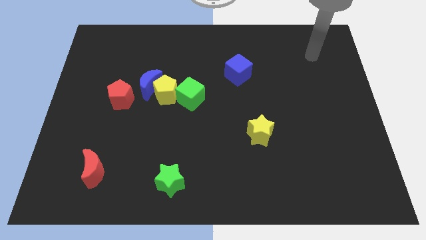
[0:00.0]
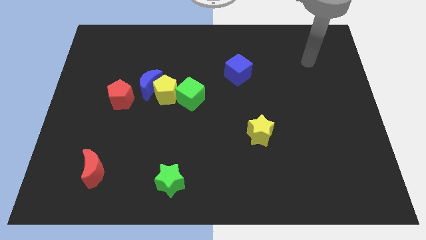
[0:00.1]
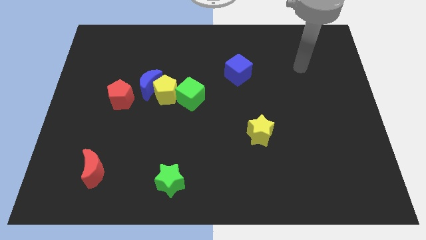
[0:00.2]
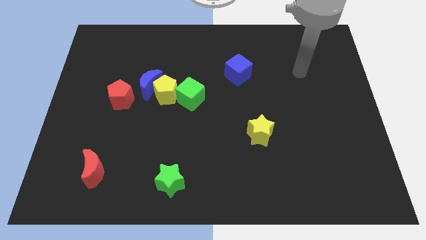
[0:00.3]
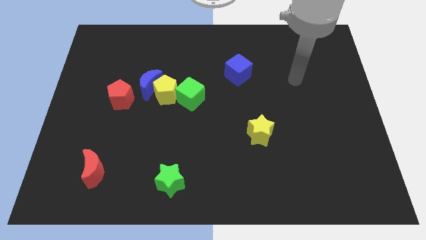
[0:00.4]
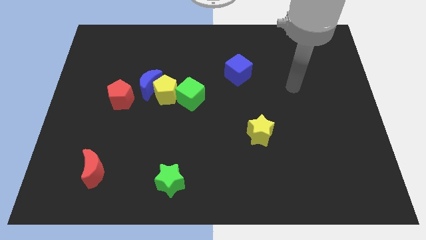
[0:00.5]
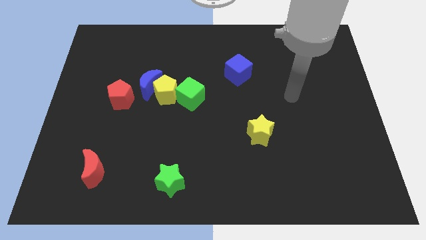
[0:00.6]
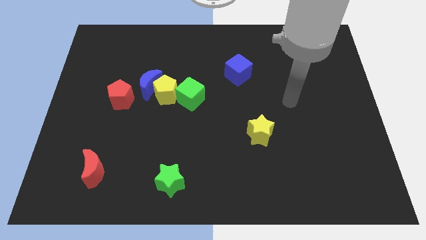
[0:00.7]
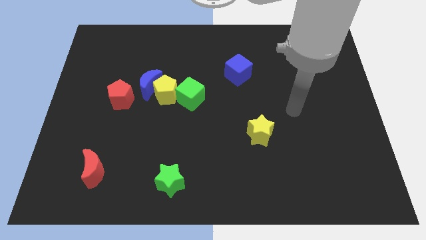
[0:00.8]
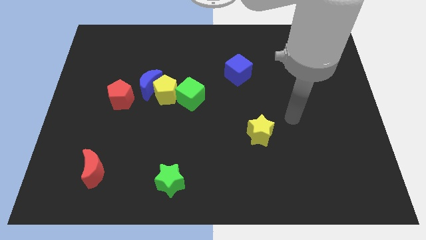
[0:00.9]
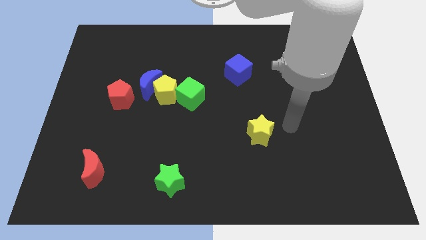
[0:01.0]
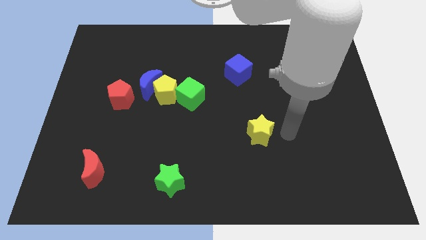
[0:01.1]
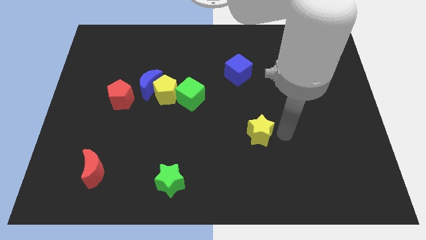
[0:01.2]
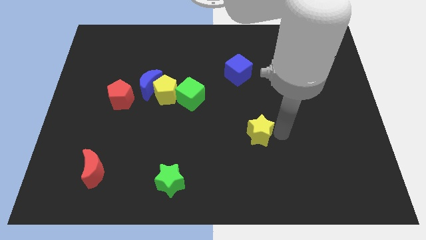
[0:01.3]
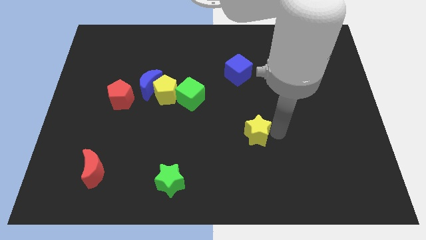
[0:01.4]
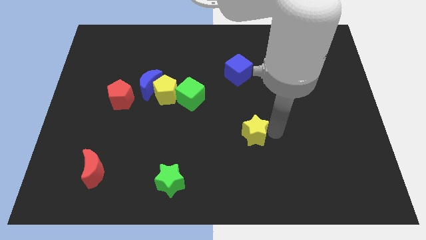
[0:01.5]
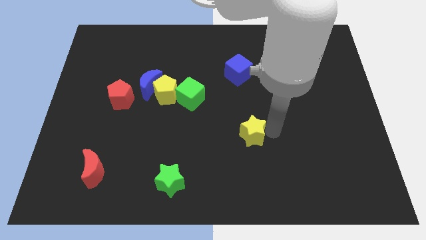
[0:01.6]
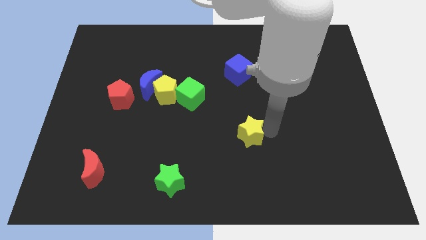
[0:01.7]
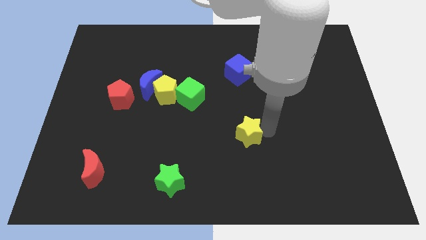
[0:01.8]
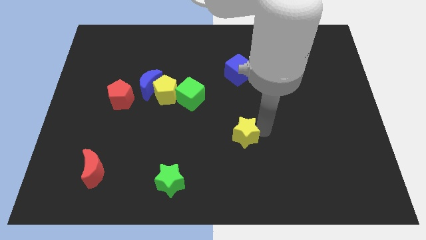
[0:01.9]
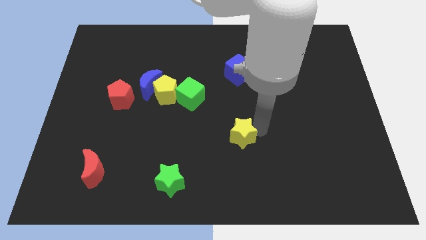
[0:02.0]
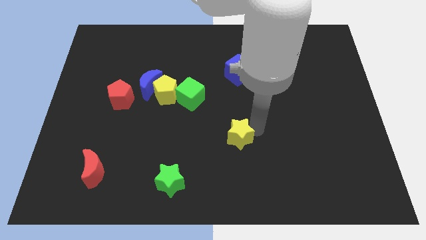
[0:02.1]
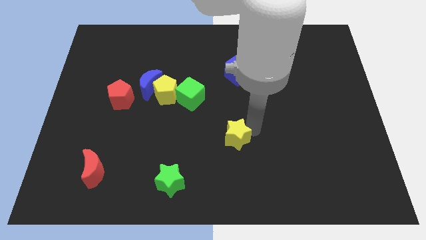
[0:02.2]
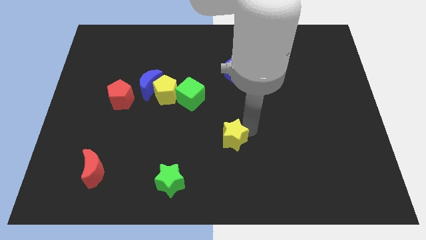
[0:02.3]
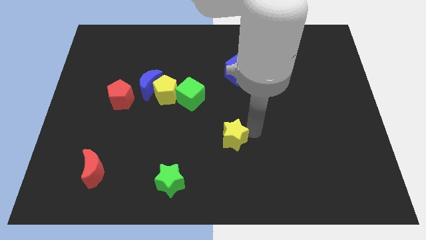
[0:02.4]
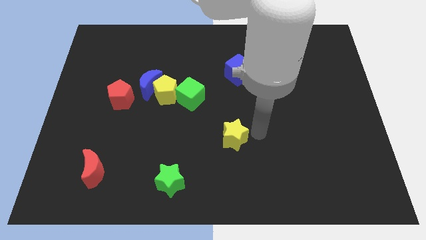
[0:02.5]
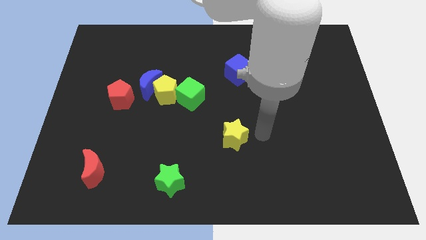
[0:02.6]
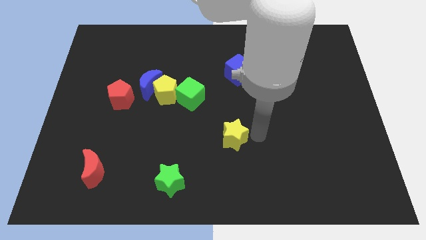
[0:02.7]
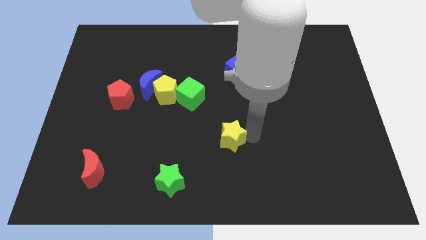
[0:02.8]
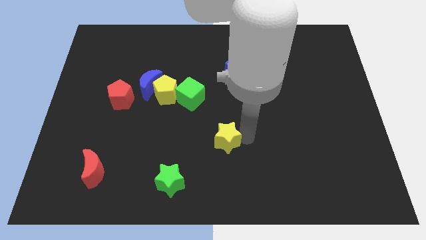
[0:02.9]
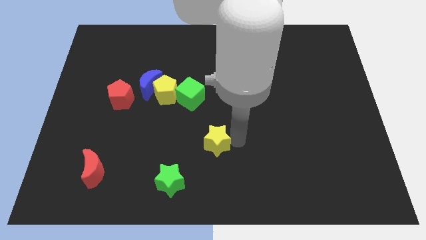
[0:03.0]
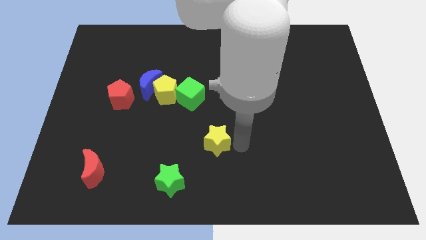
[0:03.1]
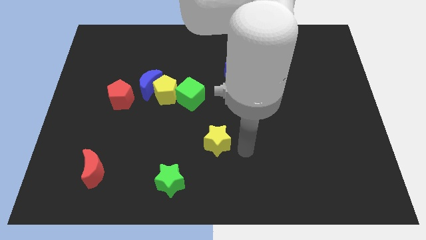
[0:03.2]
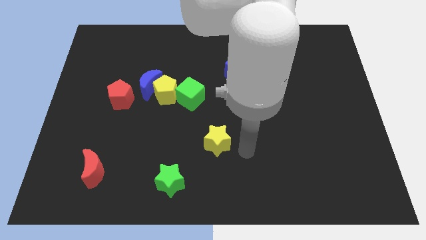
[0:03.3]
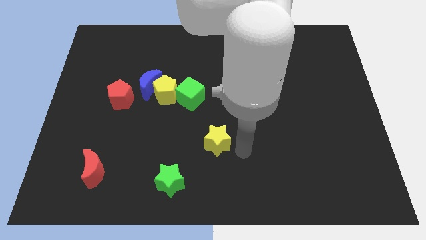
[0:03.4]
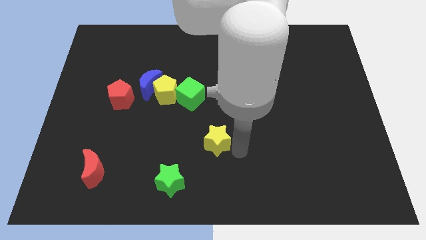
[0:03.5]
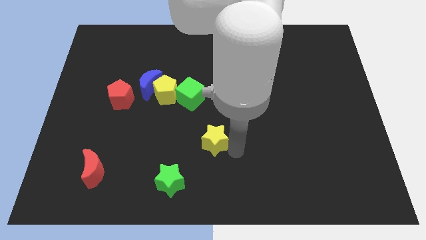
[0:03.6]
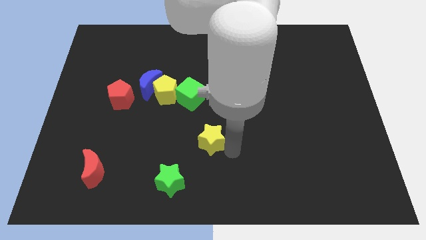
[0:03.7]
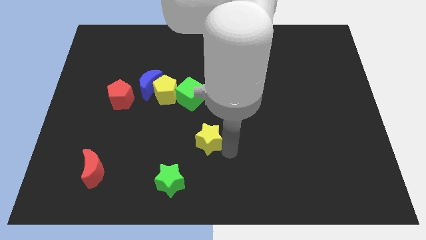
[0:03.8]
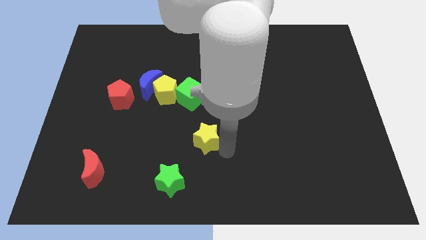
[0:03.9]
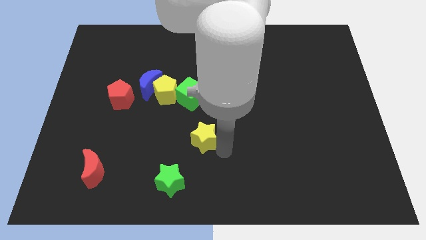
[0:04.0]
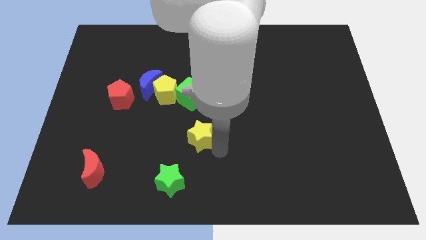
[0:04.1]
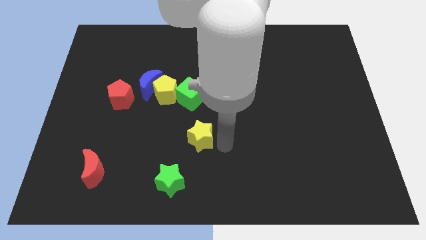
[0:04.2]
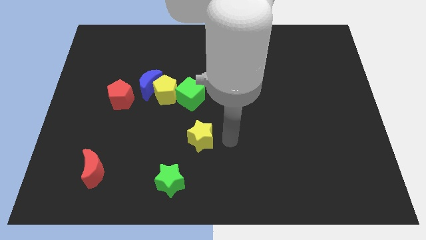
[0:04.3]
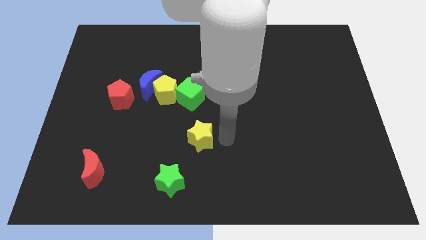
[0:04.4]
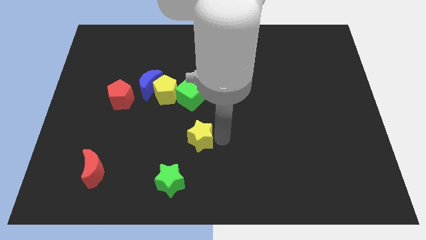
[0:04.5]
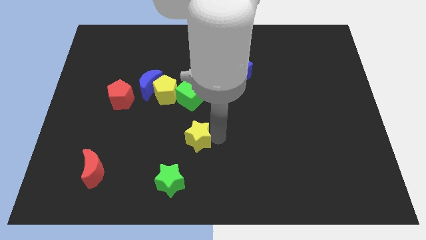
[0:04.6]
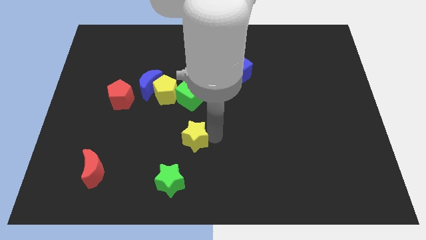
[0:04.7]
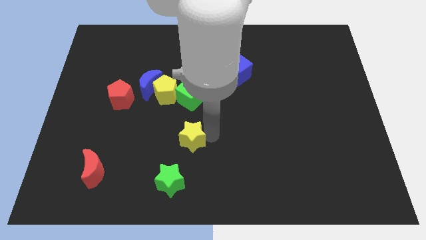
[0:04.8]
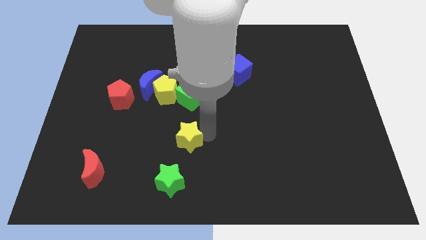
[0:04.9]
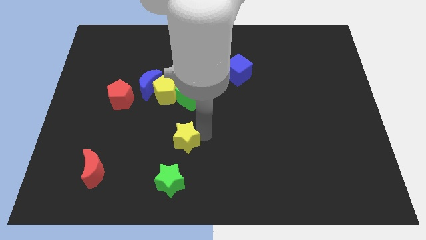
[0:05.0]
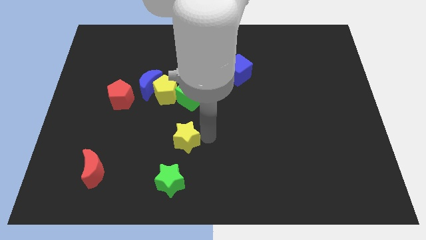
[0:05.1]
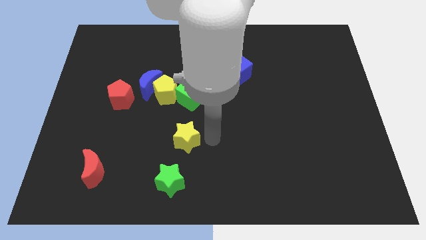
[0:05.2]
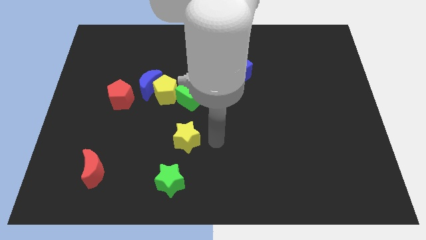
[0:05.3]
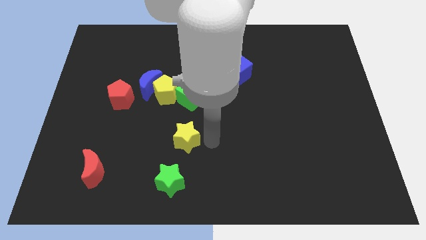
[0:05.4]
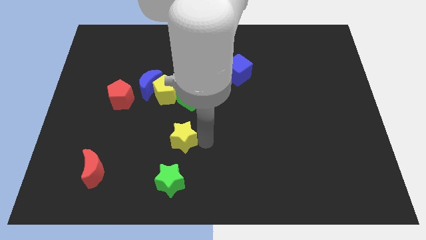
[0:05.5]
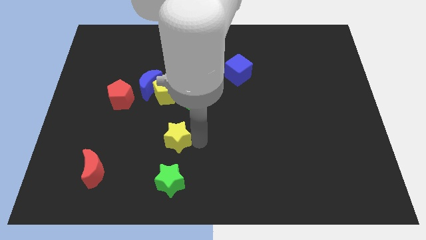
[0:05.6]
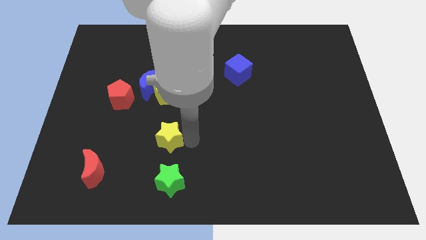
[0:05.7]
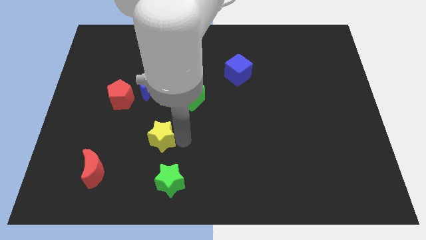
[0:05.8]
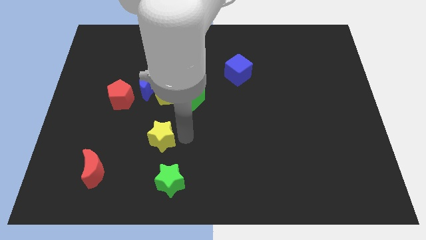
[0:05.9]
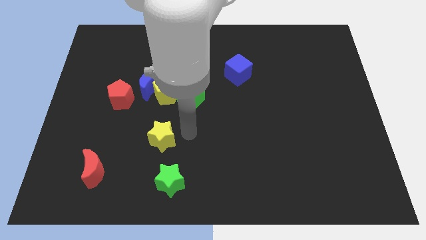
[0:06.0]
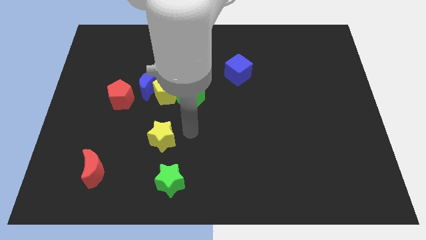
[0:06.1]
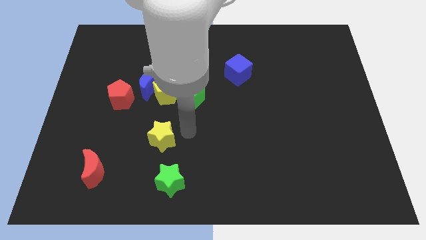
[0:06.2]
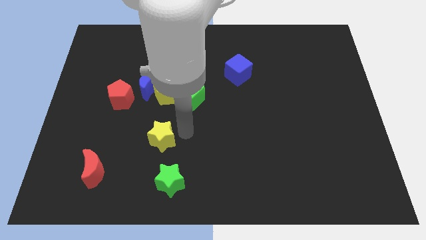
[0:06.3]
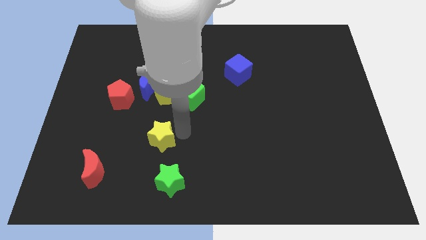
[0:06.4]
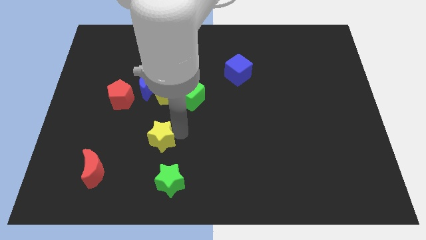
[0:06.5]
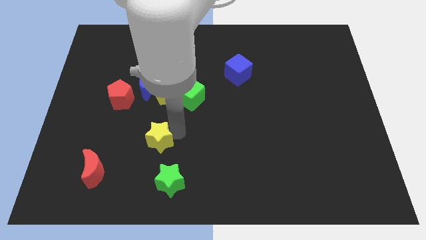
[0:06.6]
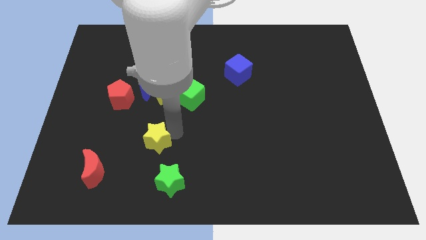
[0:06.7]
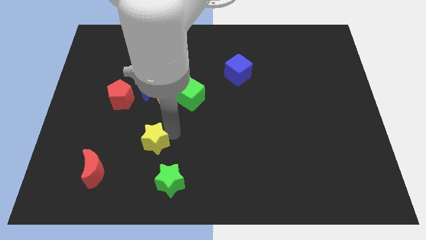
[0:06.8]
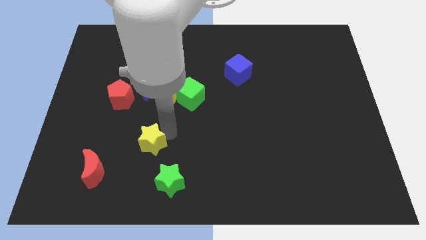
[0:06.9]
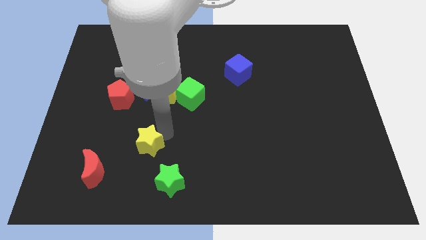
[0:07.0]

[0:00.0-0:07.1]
put the yellow star diagonally up and to the right of the red moon
